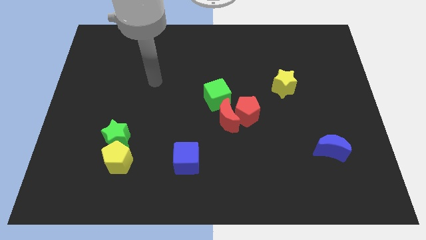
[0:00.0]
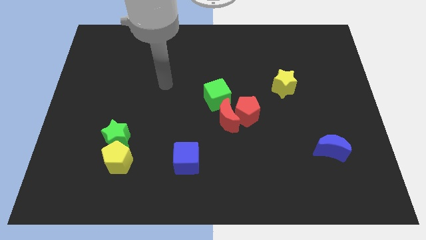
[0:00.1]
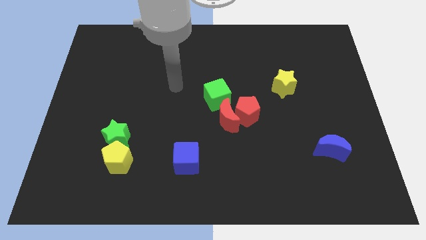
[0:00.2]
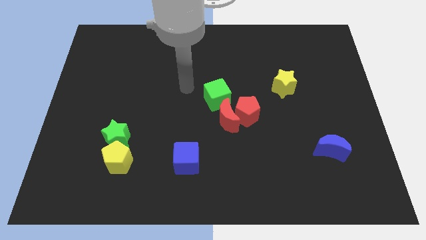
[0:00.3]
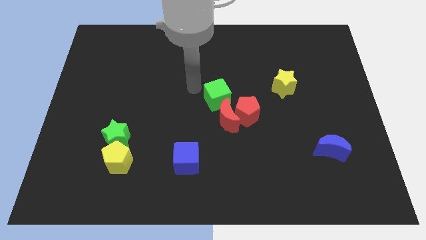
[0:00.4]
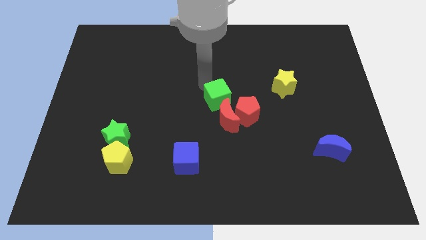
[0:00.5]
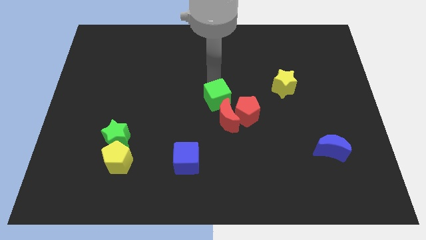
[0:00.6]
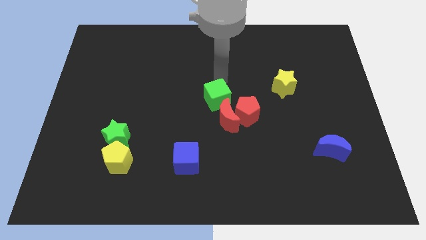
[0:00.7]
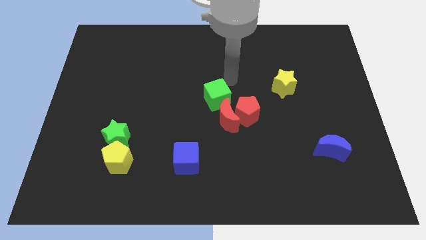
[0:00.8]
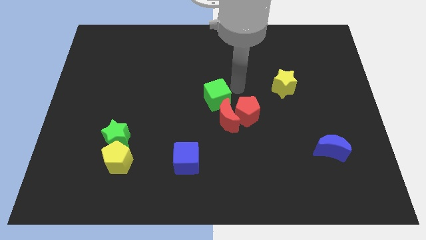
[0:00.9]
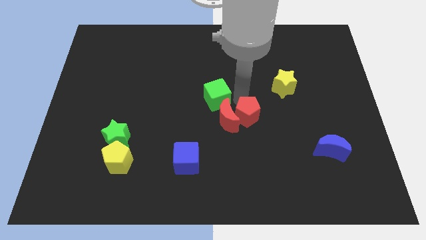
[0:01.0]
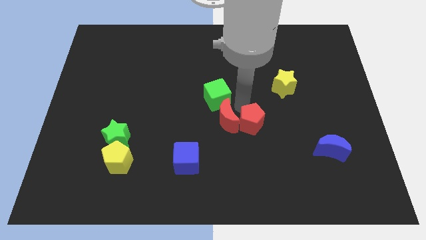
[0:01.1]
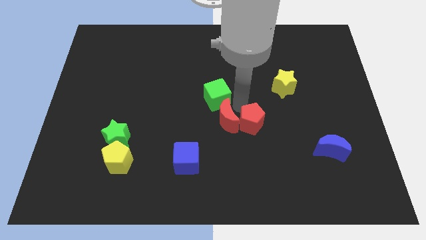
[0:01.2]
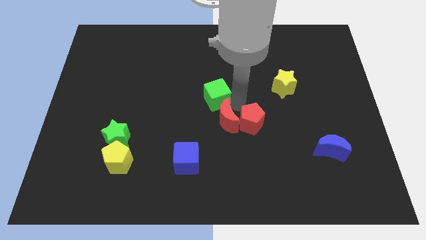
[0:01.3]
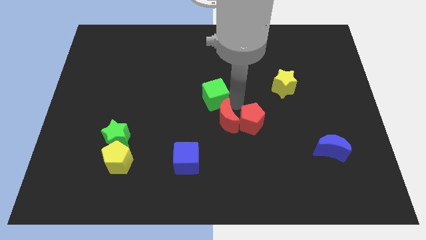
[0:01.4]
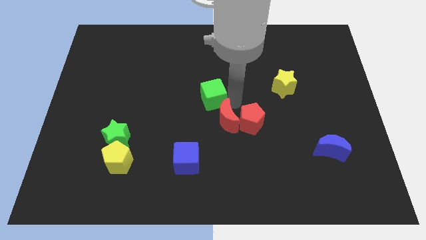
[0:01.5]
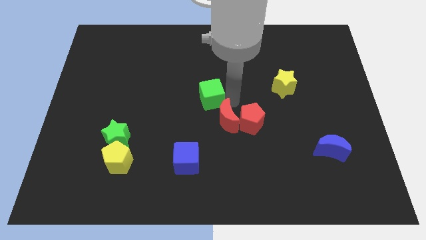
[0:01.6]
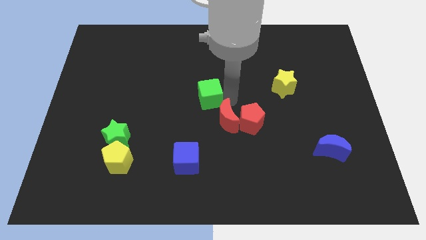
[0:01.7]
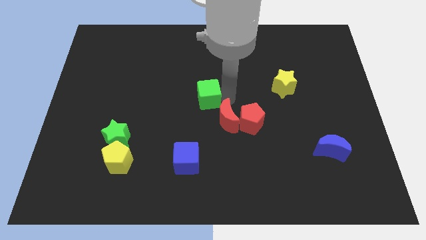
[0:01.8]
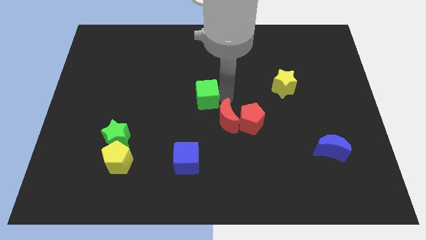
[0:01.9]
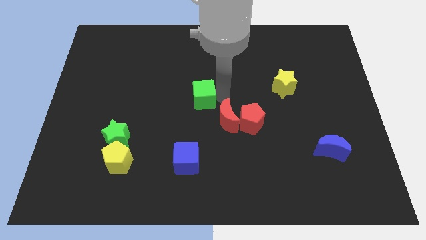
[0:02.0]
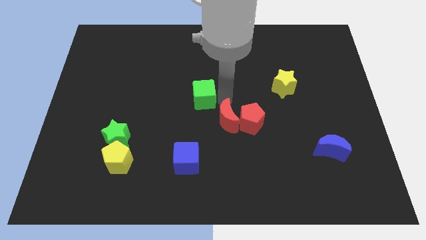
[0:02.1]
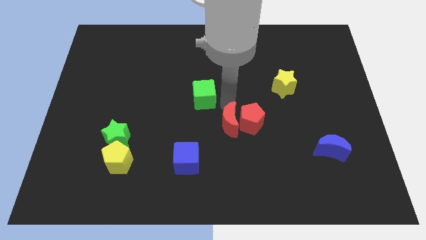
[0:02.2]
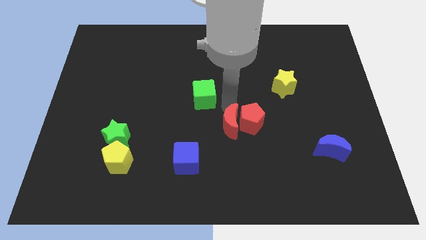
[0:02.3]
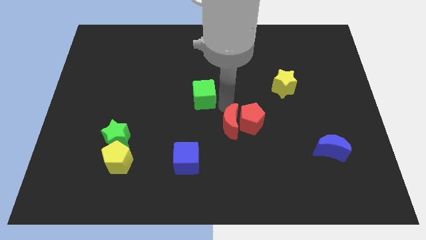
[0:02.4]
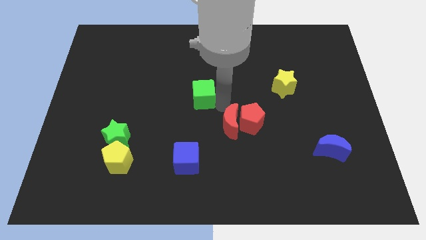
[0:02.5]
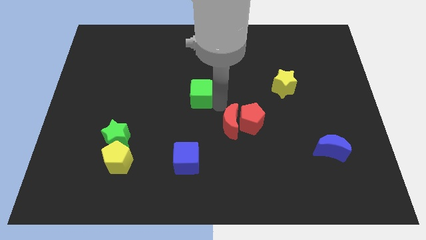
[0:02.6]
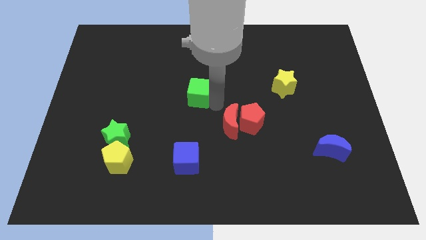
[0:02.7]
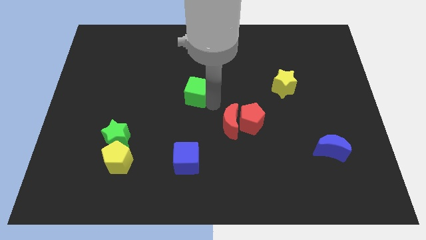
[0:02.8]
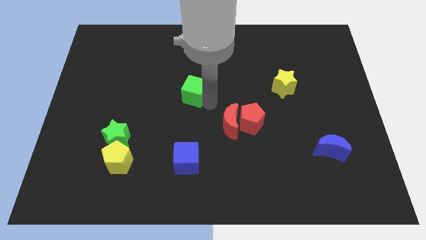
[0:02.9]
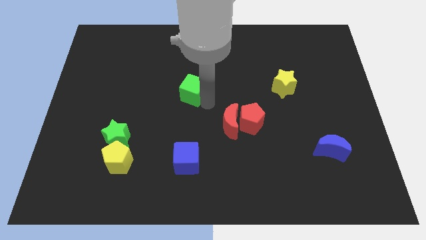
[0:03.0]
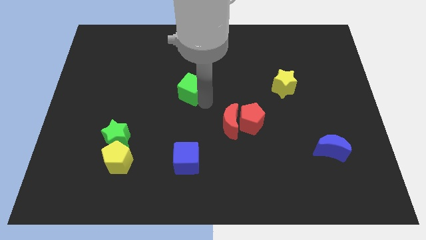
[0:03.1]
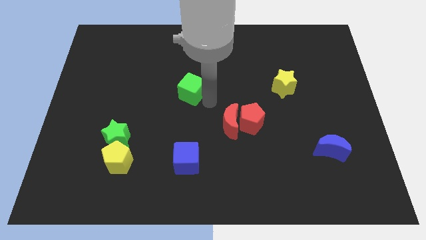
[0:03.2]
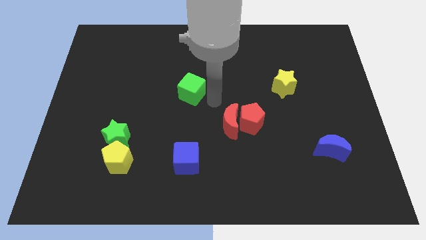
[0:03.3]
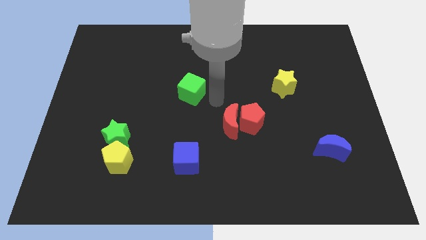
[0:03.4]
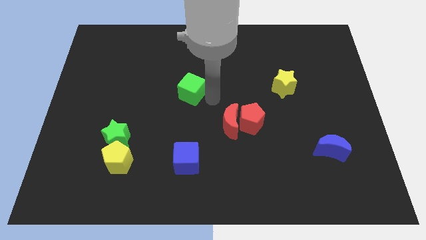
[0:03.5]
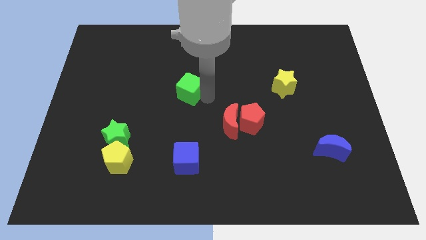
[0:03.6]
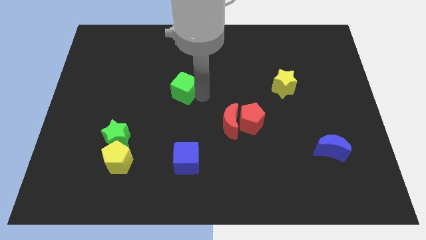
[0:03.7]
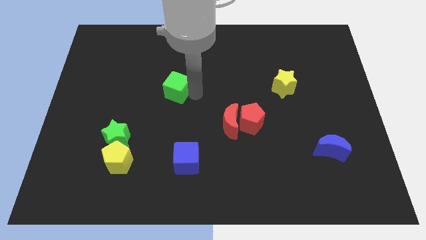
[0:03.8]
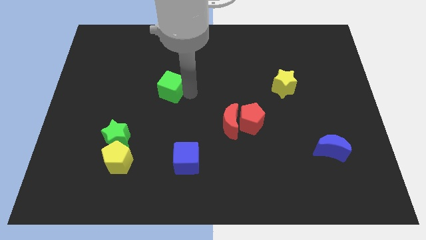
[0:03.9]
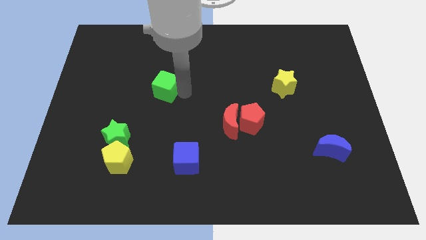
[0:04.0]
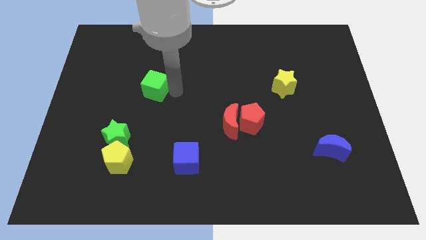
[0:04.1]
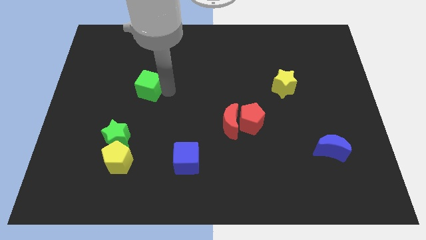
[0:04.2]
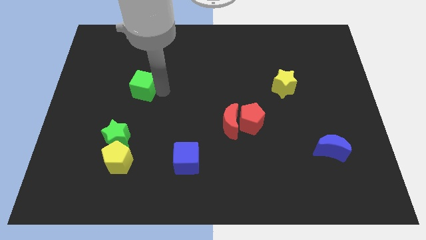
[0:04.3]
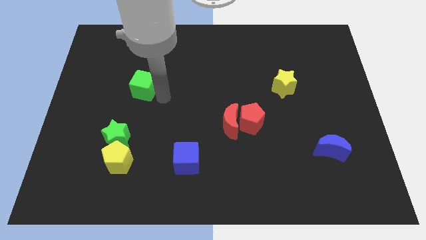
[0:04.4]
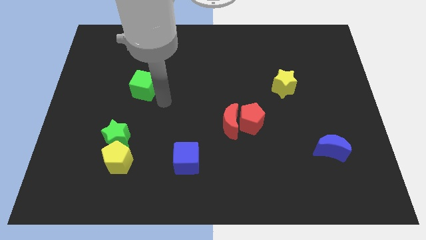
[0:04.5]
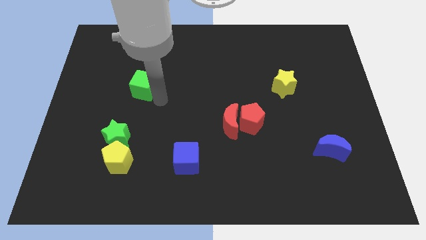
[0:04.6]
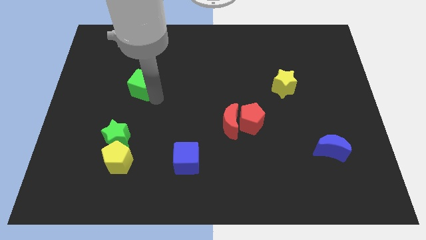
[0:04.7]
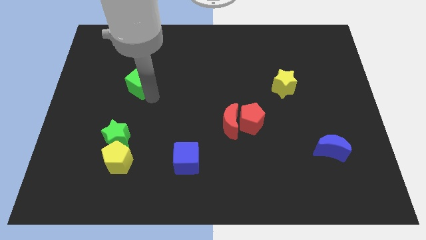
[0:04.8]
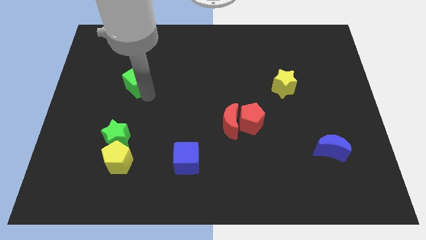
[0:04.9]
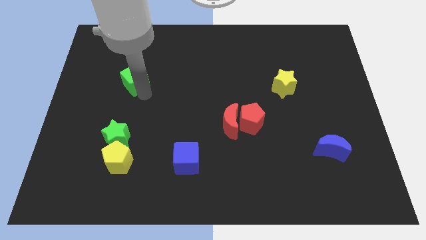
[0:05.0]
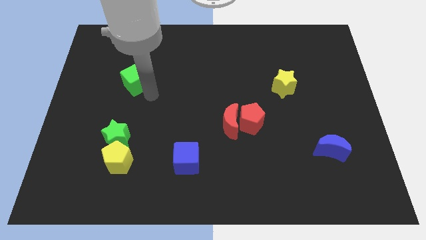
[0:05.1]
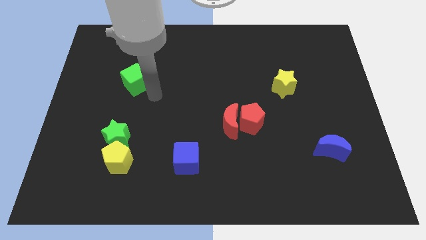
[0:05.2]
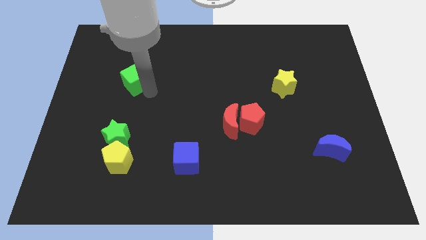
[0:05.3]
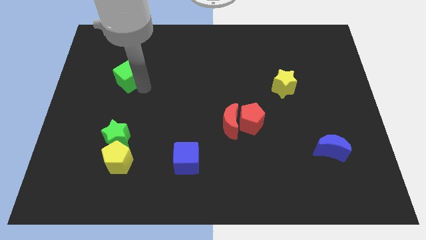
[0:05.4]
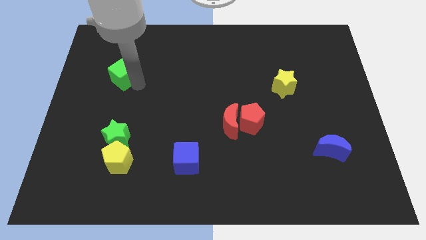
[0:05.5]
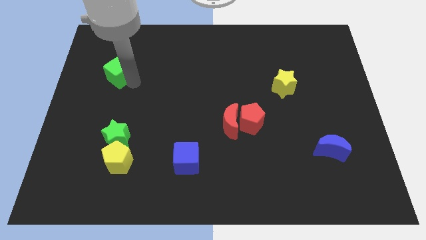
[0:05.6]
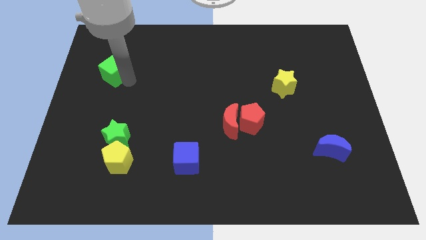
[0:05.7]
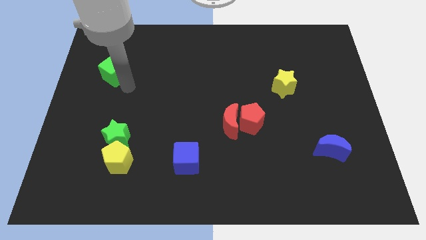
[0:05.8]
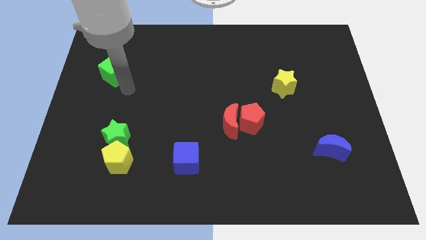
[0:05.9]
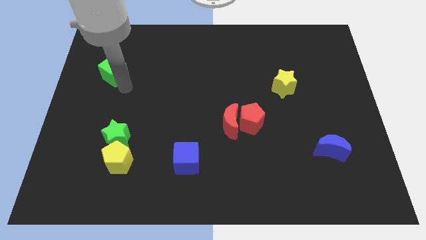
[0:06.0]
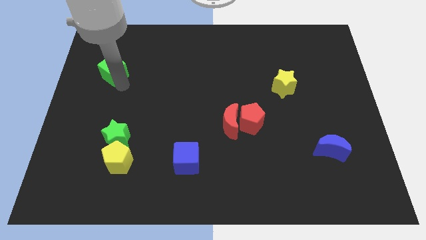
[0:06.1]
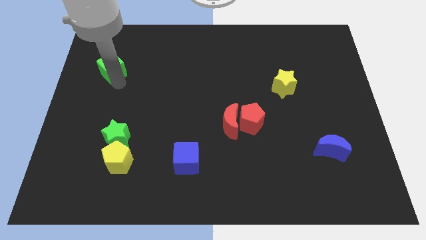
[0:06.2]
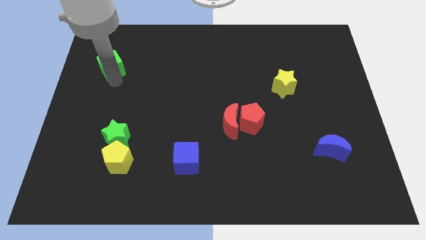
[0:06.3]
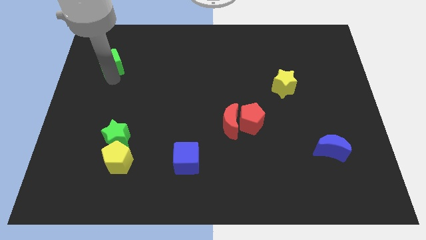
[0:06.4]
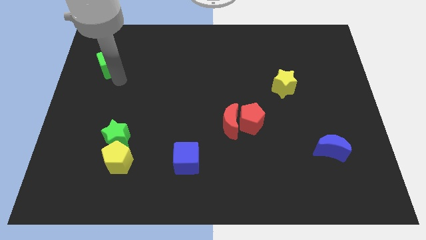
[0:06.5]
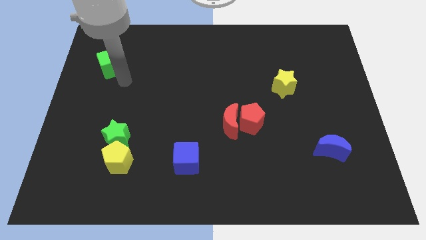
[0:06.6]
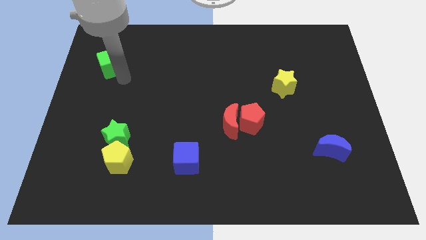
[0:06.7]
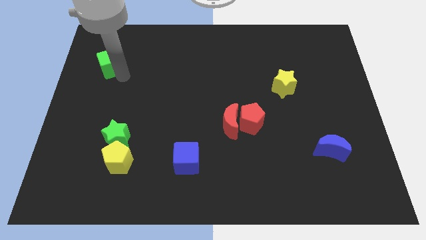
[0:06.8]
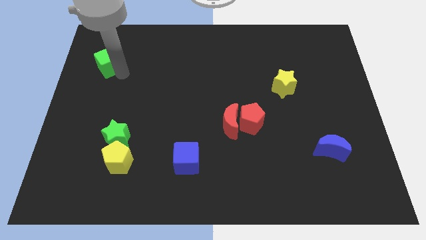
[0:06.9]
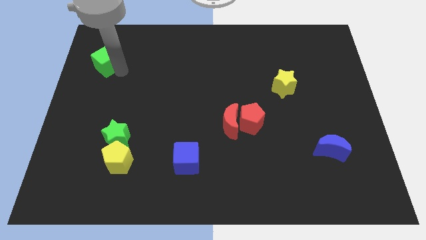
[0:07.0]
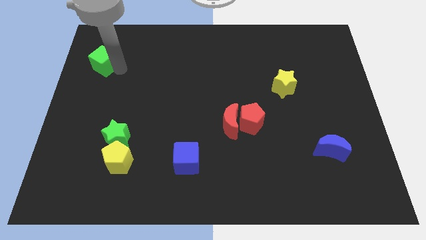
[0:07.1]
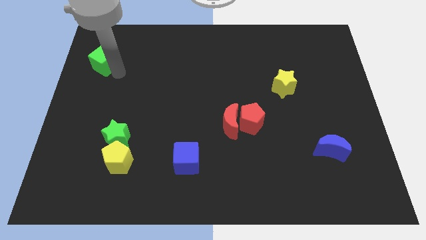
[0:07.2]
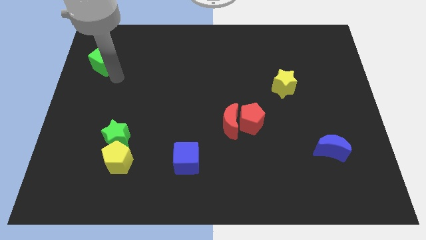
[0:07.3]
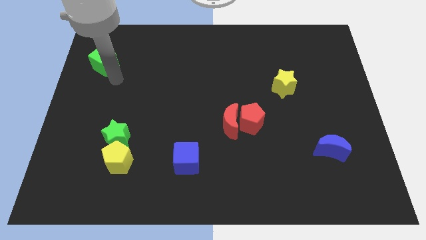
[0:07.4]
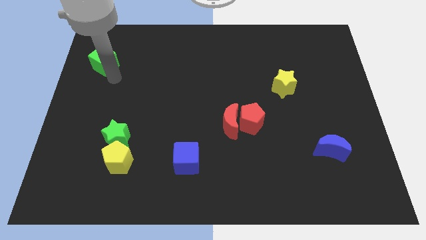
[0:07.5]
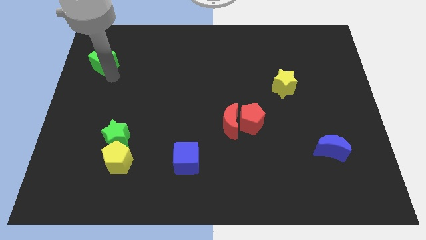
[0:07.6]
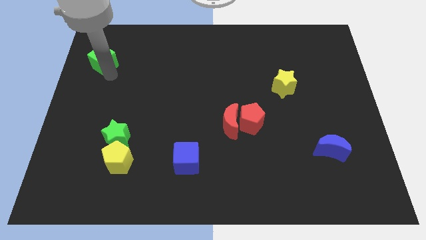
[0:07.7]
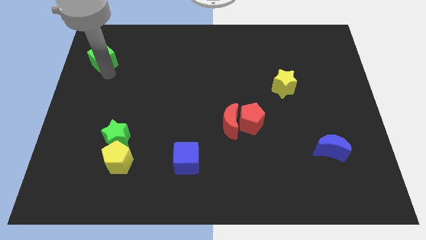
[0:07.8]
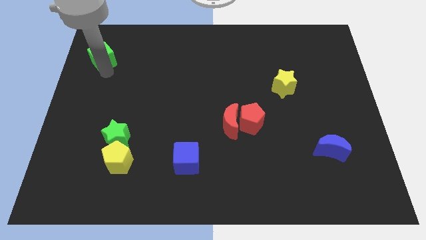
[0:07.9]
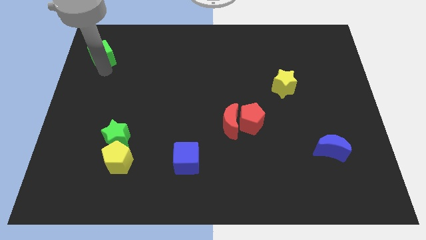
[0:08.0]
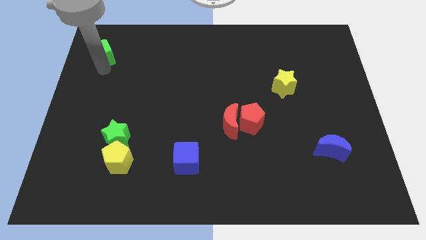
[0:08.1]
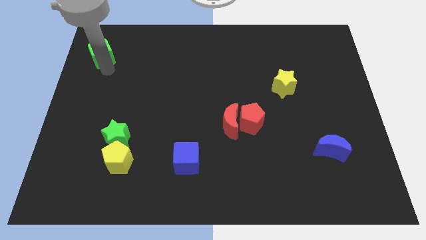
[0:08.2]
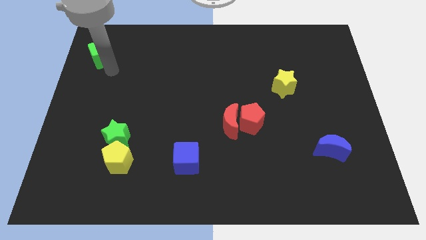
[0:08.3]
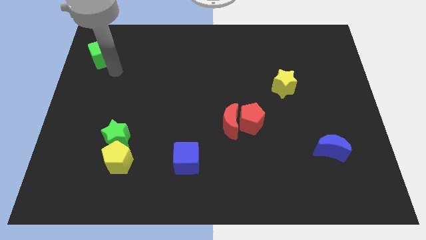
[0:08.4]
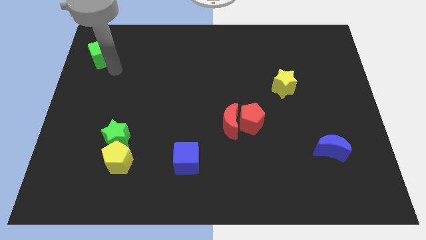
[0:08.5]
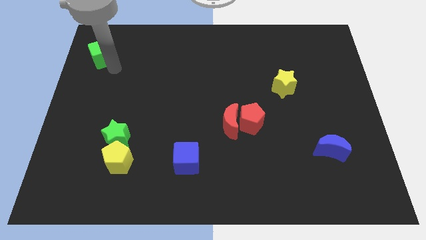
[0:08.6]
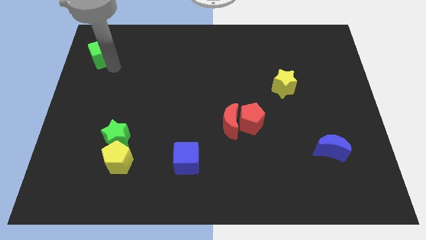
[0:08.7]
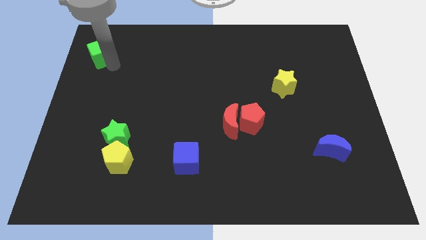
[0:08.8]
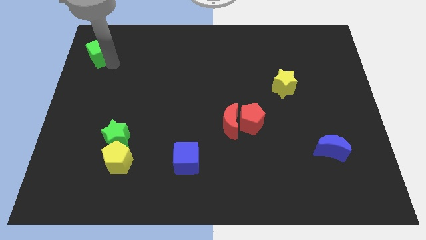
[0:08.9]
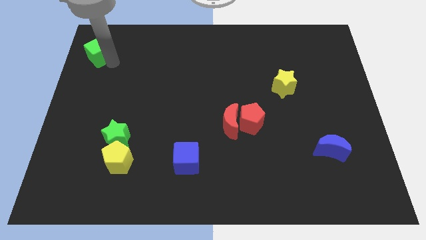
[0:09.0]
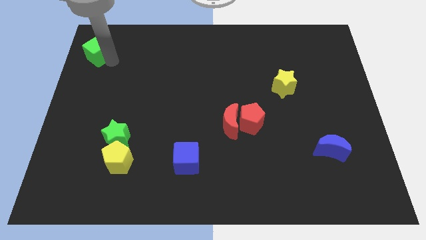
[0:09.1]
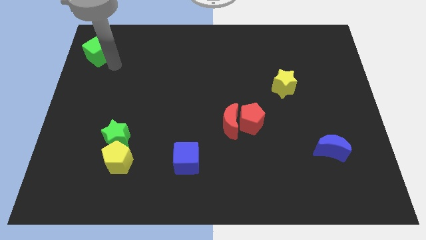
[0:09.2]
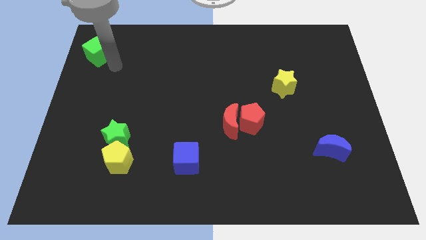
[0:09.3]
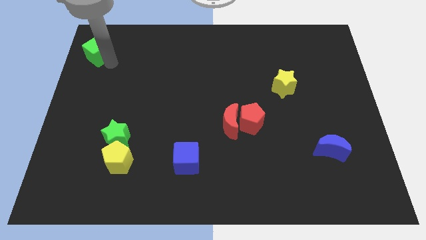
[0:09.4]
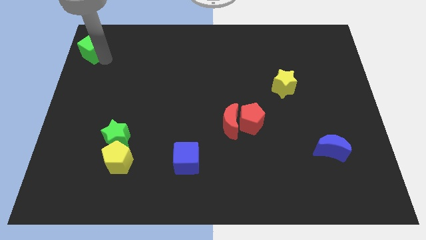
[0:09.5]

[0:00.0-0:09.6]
move the green cube to the top left of the board
